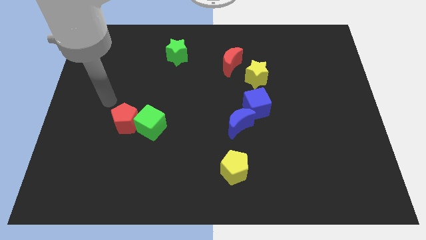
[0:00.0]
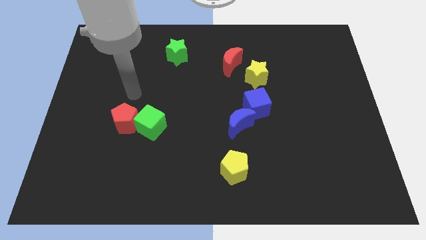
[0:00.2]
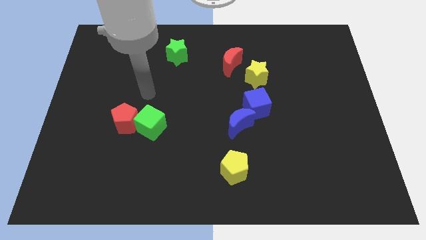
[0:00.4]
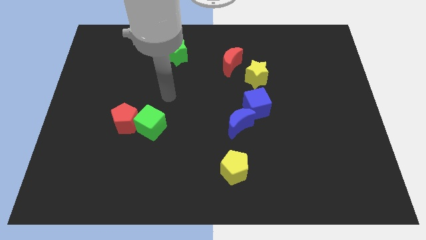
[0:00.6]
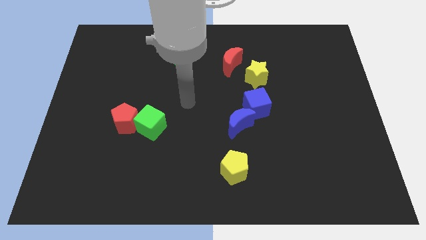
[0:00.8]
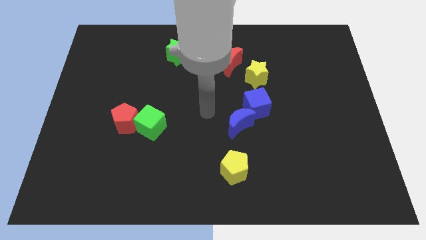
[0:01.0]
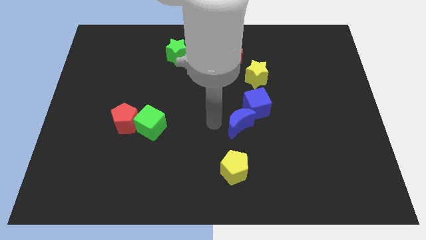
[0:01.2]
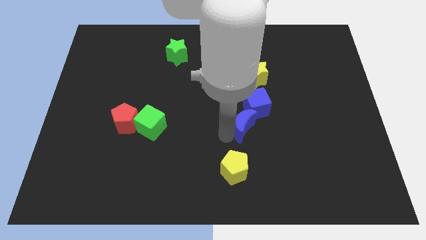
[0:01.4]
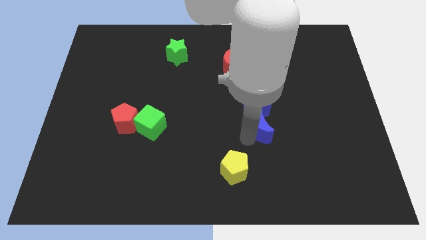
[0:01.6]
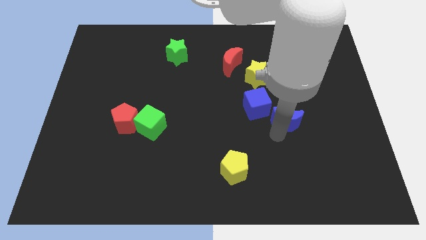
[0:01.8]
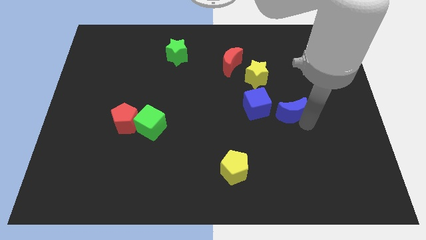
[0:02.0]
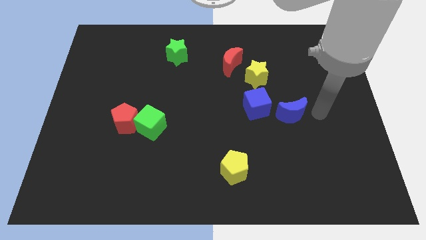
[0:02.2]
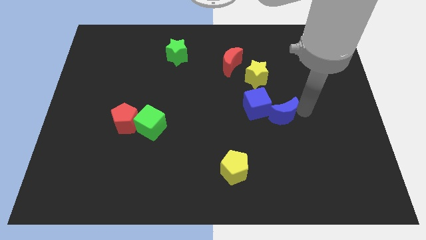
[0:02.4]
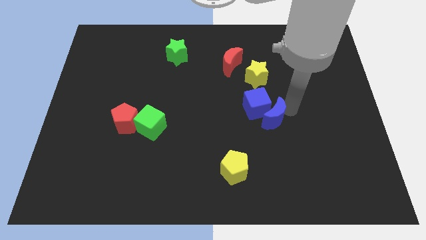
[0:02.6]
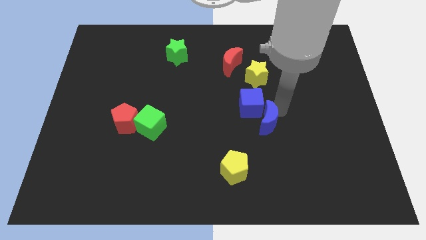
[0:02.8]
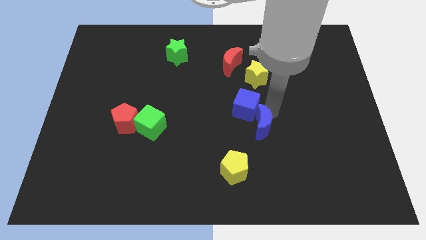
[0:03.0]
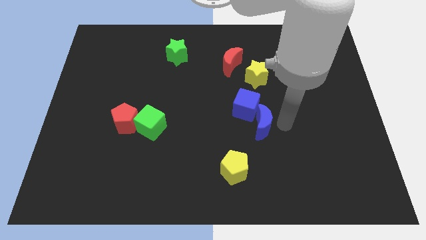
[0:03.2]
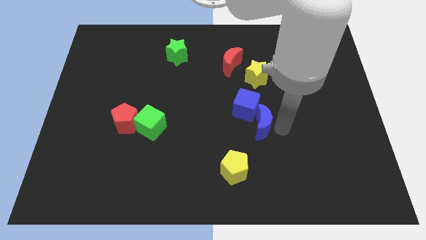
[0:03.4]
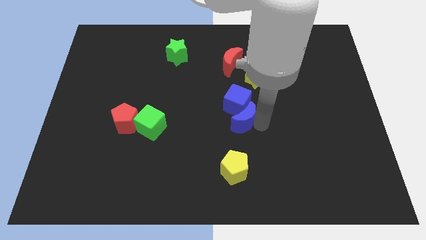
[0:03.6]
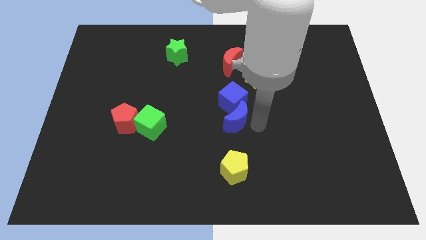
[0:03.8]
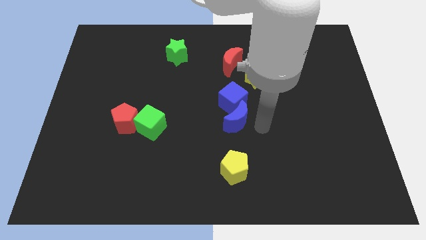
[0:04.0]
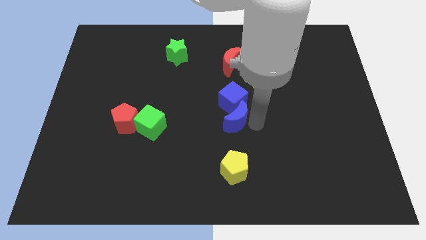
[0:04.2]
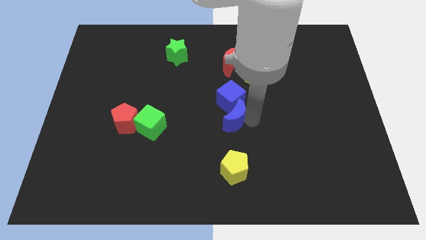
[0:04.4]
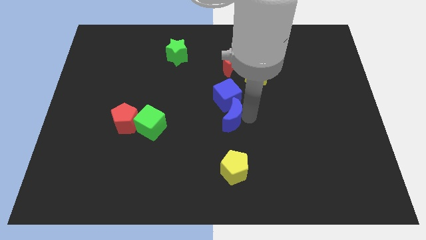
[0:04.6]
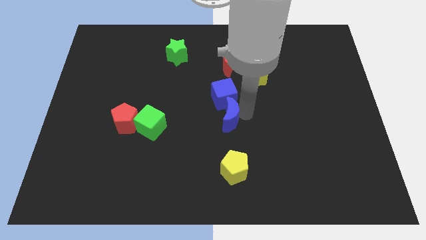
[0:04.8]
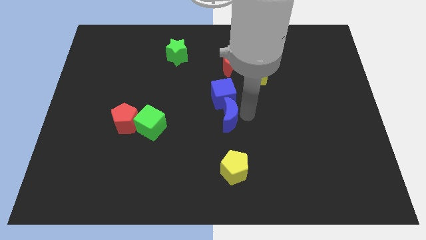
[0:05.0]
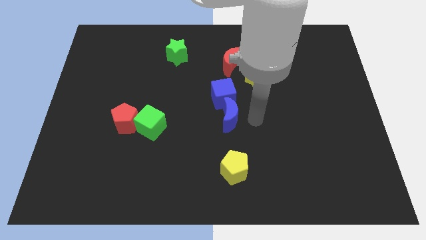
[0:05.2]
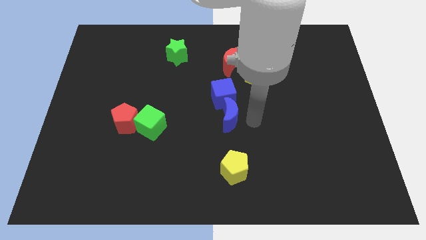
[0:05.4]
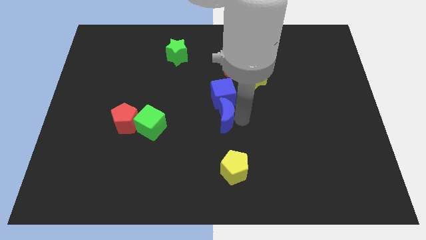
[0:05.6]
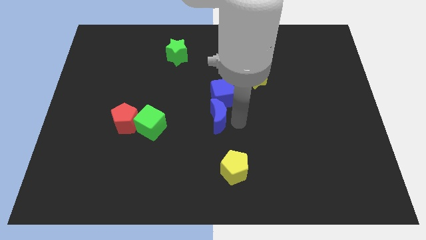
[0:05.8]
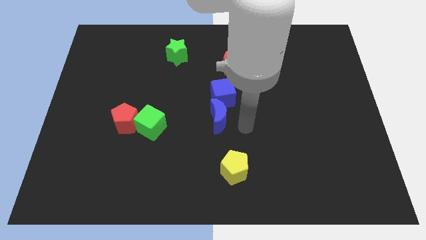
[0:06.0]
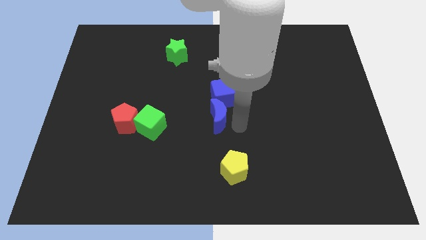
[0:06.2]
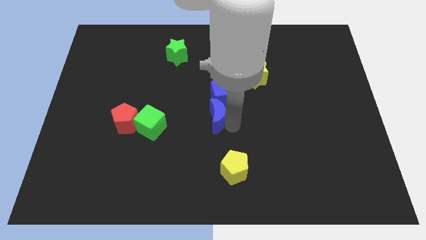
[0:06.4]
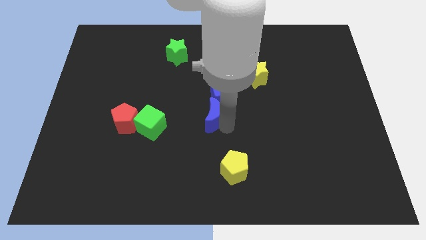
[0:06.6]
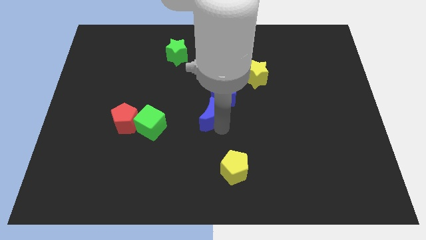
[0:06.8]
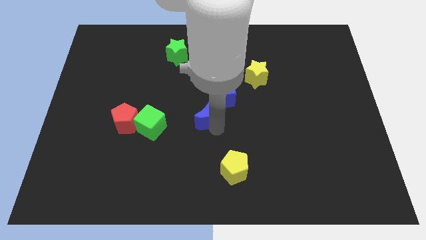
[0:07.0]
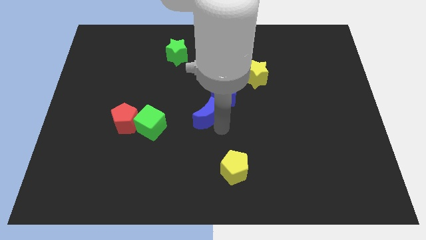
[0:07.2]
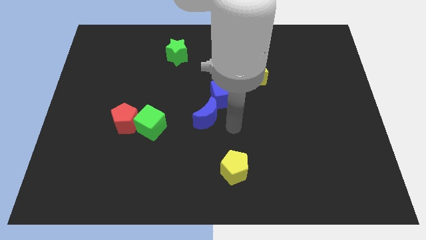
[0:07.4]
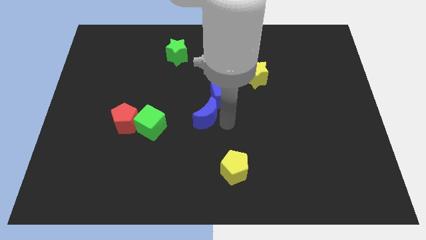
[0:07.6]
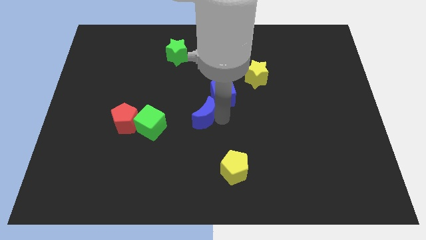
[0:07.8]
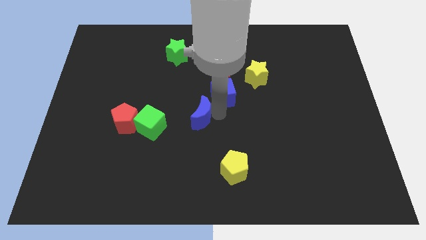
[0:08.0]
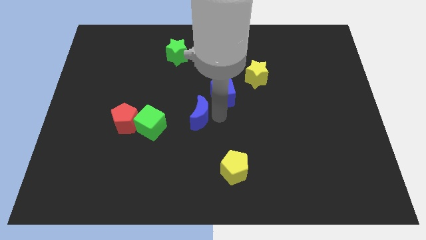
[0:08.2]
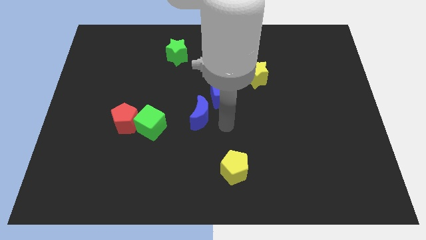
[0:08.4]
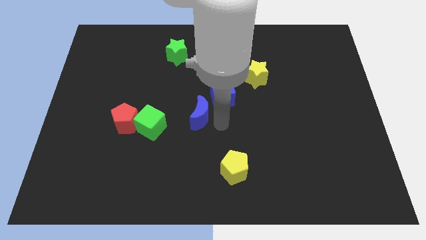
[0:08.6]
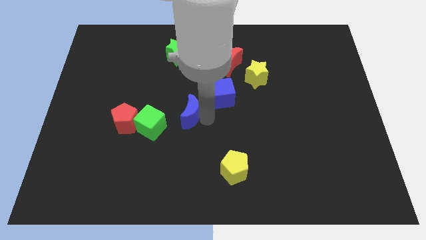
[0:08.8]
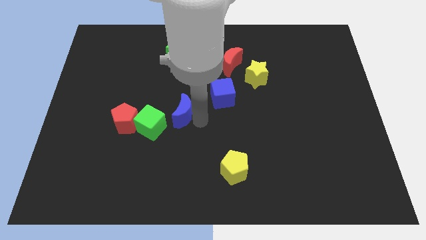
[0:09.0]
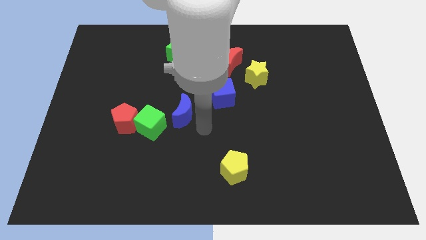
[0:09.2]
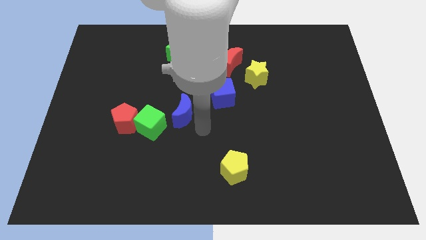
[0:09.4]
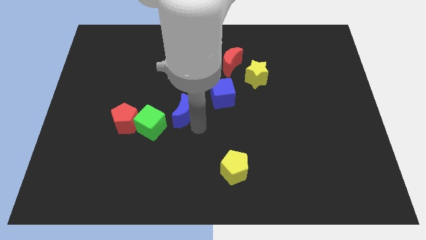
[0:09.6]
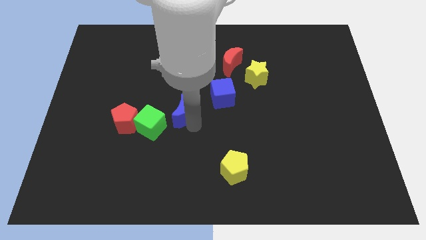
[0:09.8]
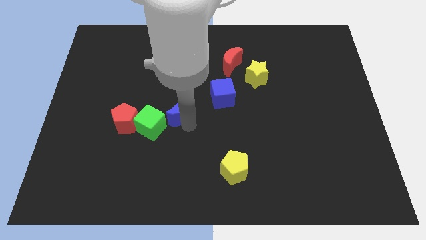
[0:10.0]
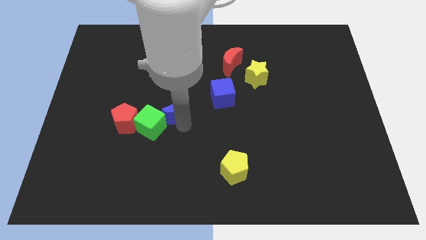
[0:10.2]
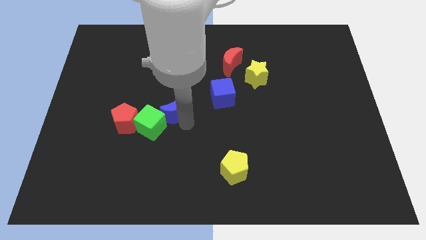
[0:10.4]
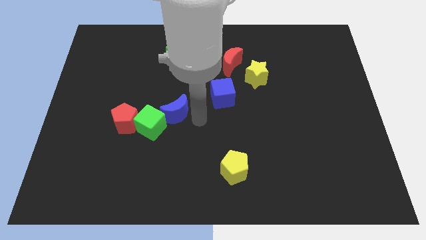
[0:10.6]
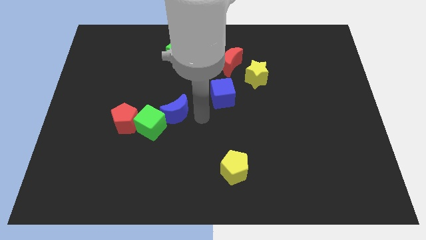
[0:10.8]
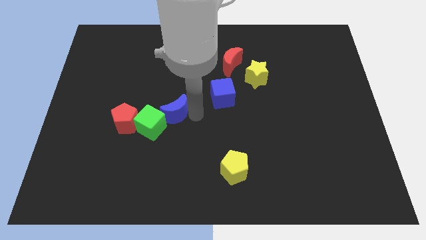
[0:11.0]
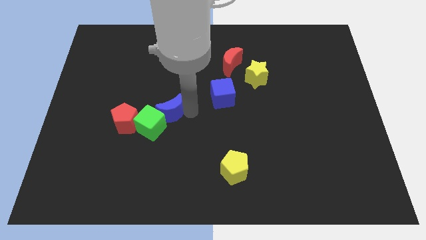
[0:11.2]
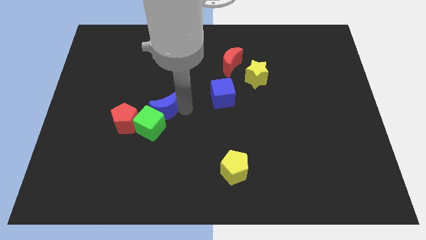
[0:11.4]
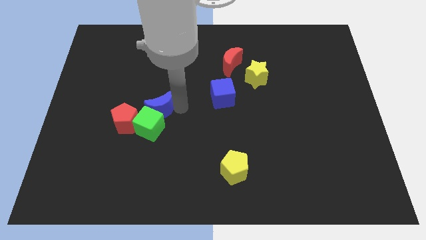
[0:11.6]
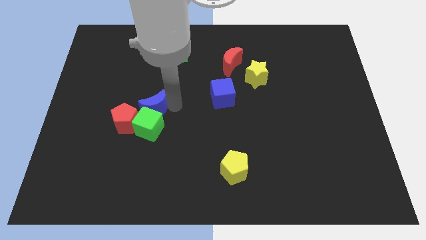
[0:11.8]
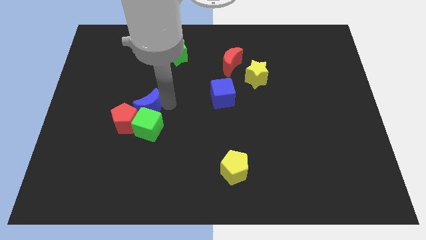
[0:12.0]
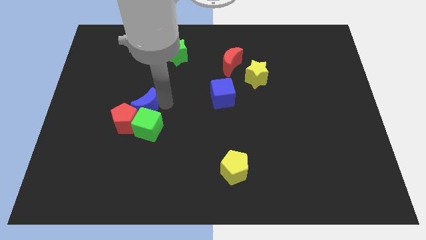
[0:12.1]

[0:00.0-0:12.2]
move the blue moon next to the red pentagon

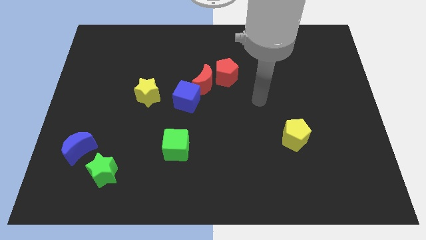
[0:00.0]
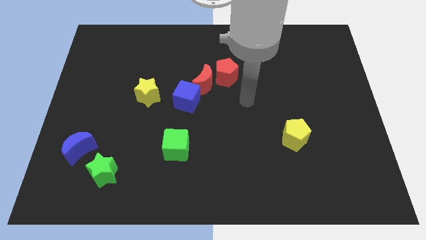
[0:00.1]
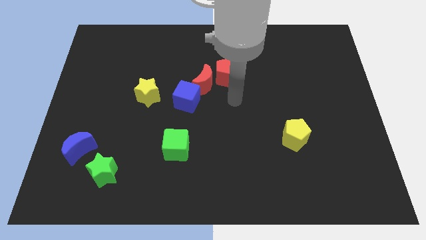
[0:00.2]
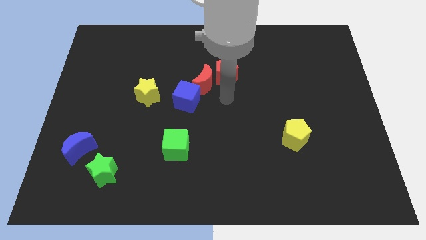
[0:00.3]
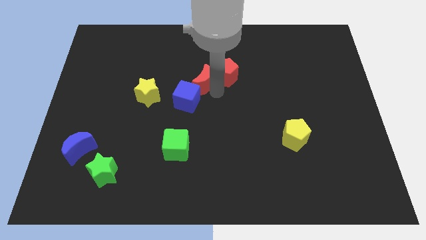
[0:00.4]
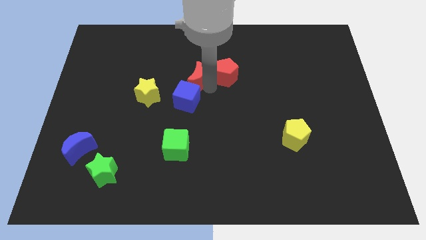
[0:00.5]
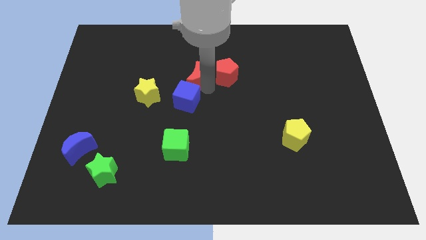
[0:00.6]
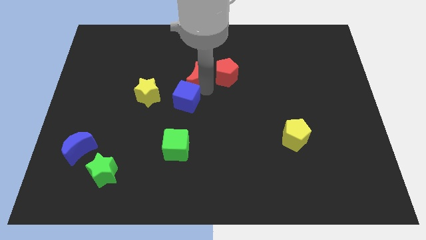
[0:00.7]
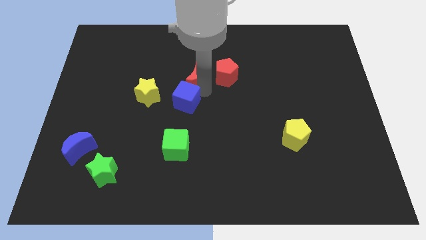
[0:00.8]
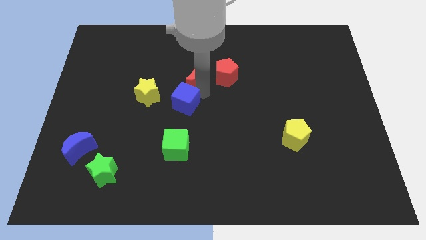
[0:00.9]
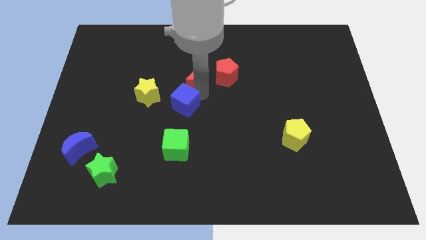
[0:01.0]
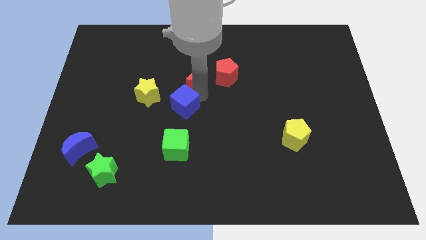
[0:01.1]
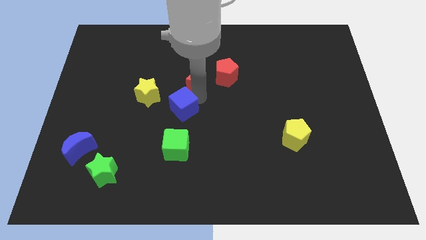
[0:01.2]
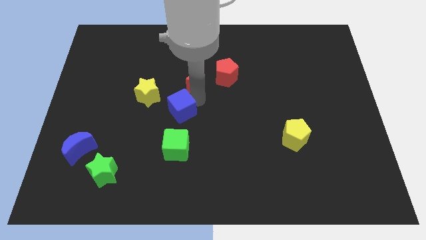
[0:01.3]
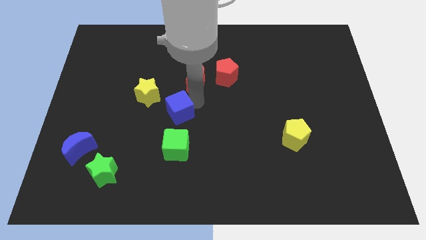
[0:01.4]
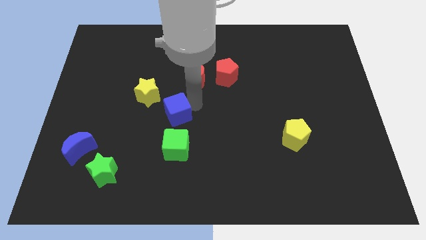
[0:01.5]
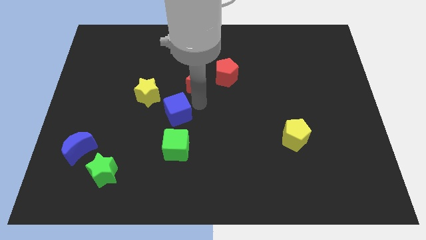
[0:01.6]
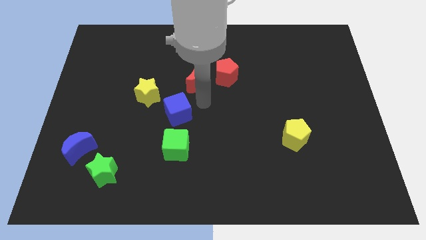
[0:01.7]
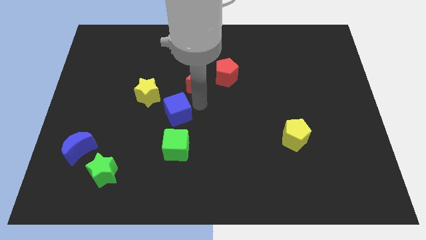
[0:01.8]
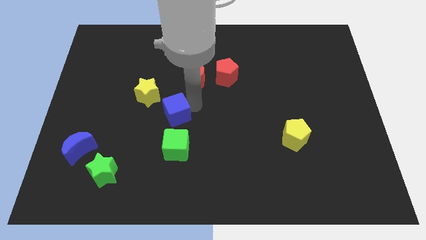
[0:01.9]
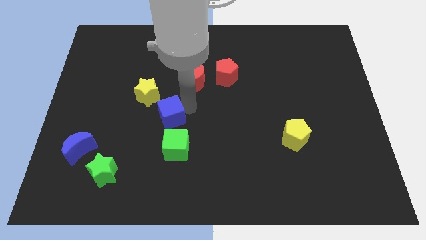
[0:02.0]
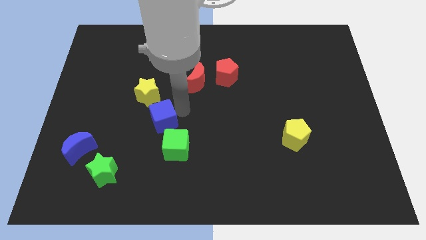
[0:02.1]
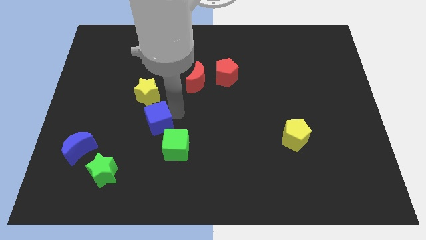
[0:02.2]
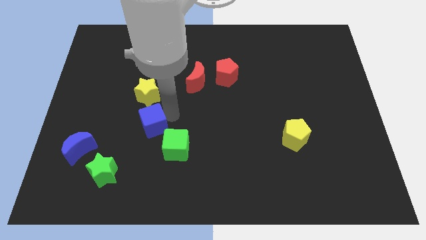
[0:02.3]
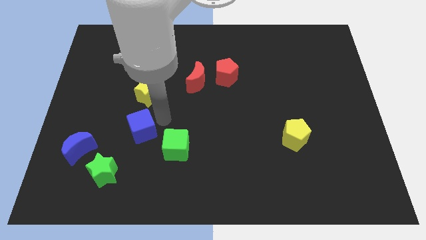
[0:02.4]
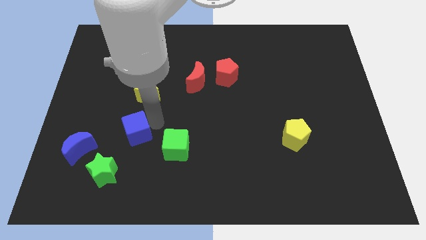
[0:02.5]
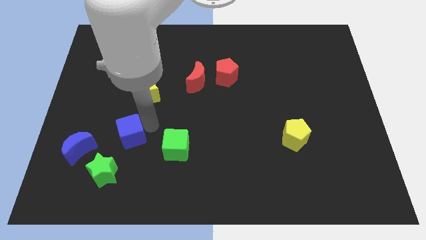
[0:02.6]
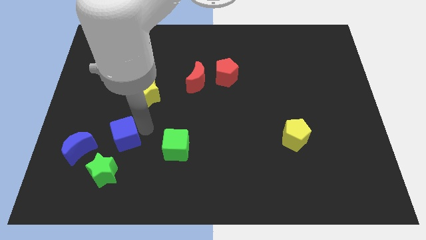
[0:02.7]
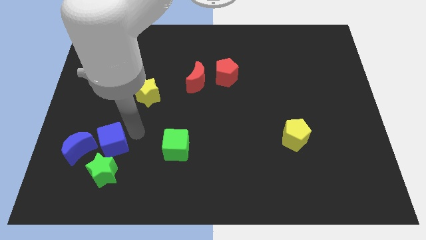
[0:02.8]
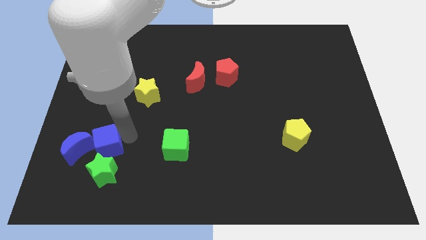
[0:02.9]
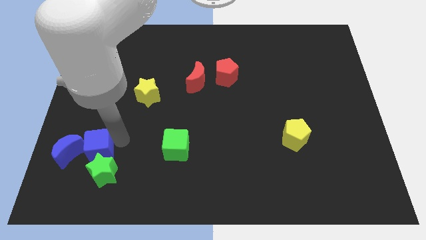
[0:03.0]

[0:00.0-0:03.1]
slide the blue cube next to the blue moon
